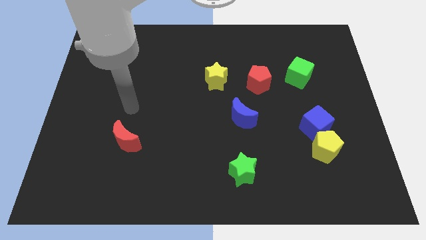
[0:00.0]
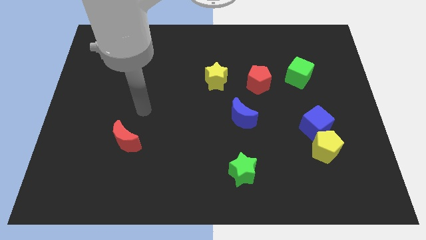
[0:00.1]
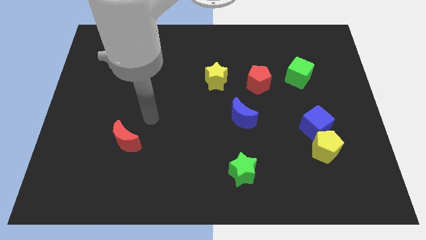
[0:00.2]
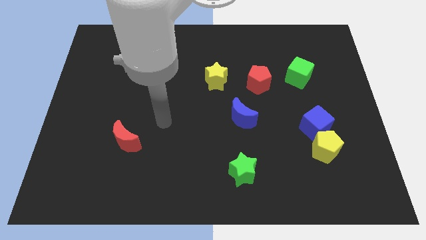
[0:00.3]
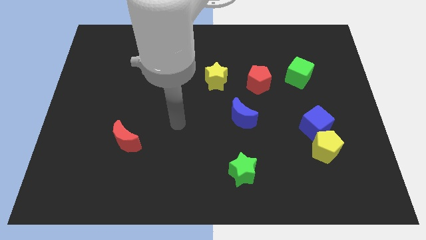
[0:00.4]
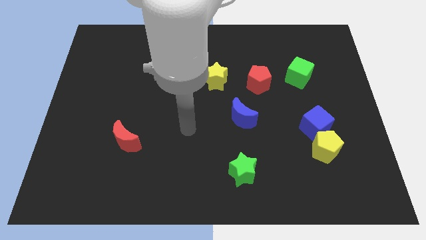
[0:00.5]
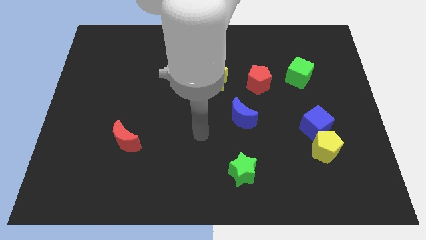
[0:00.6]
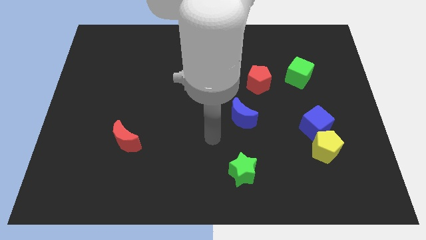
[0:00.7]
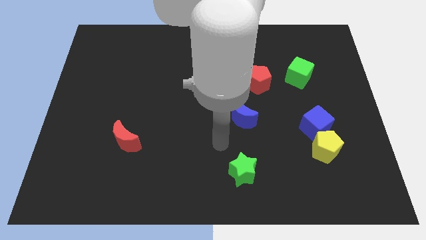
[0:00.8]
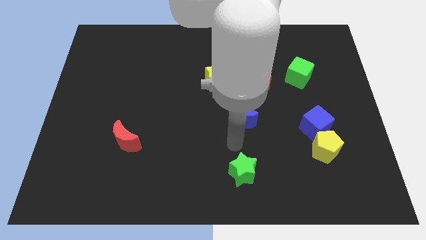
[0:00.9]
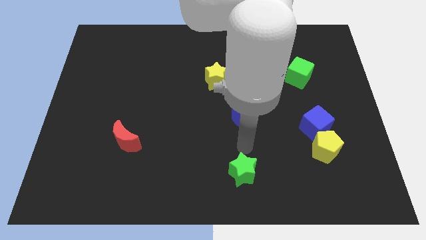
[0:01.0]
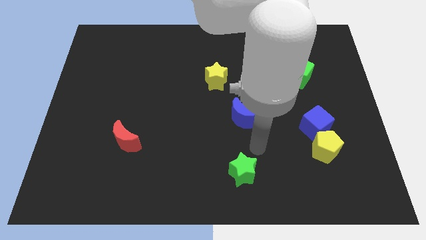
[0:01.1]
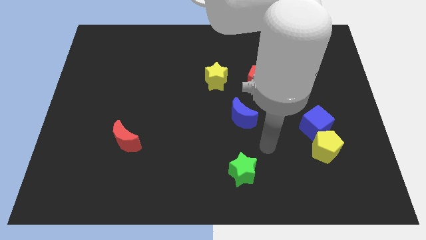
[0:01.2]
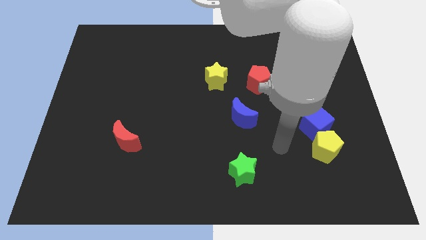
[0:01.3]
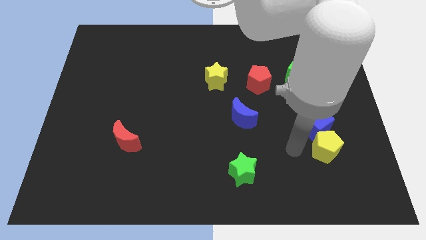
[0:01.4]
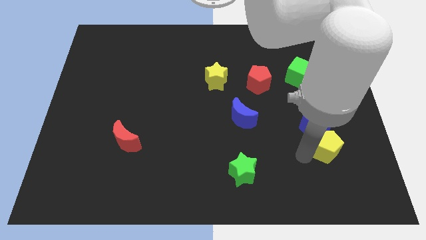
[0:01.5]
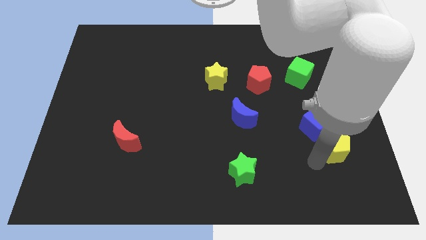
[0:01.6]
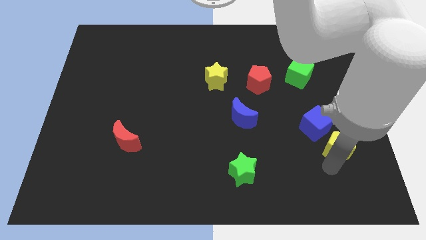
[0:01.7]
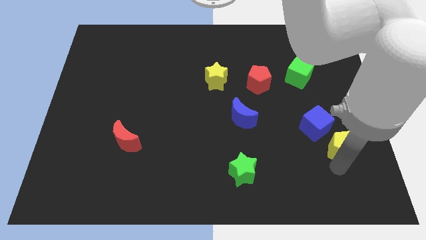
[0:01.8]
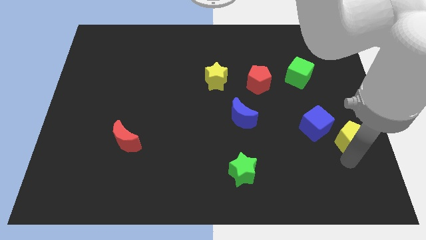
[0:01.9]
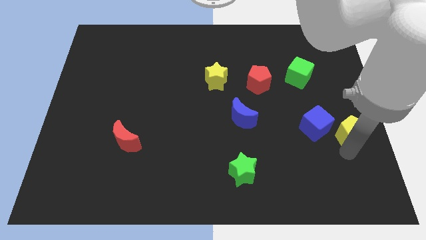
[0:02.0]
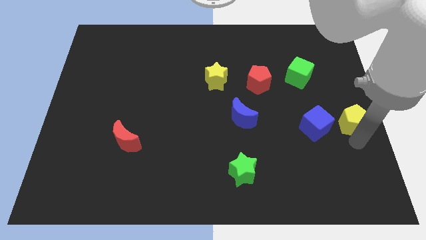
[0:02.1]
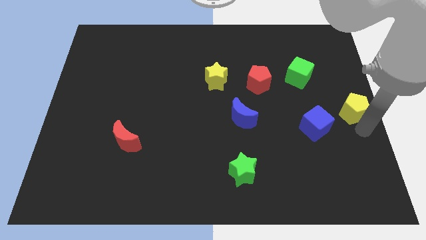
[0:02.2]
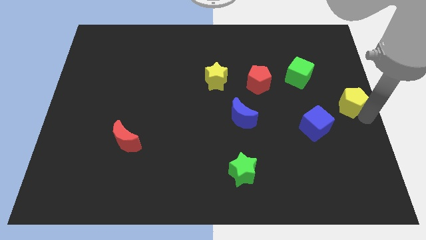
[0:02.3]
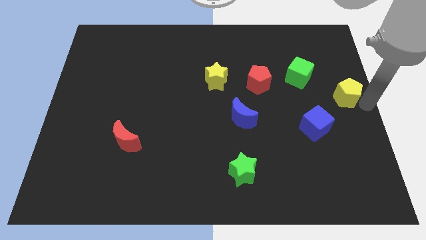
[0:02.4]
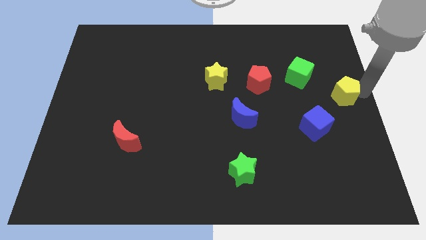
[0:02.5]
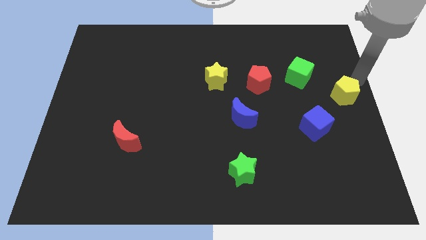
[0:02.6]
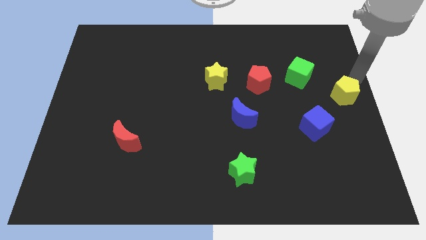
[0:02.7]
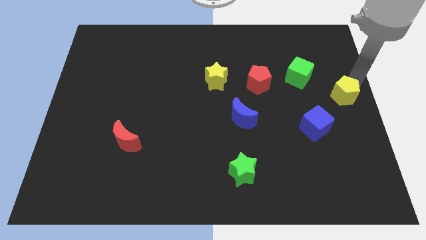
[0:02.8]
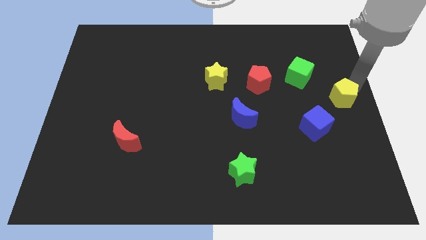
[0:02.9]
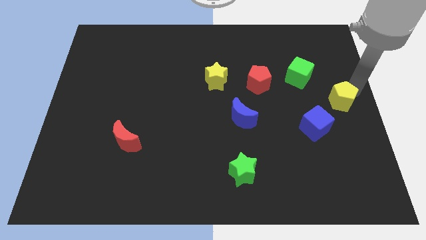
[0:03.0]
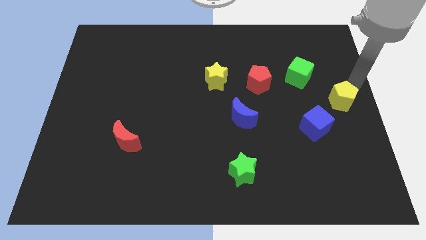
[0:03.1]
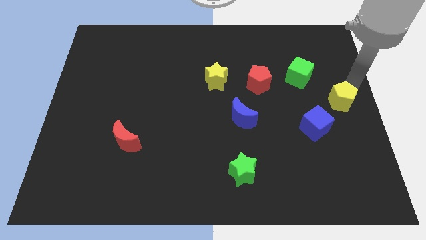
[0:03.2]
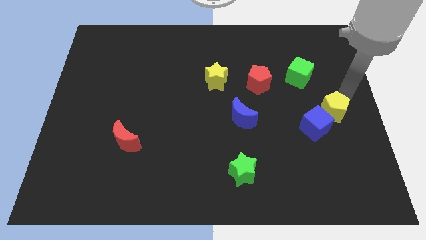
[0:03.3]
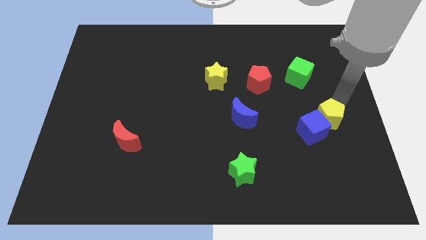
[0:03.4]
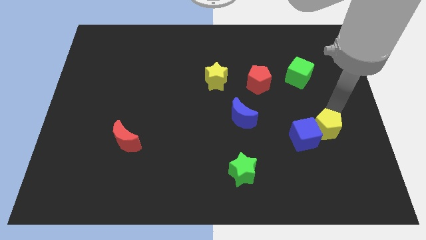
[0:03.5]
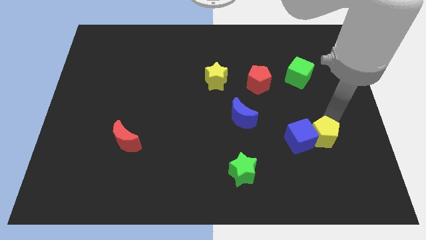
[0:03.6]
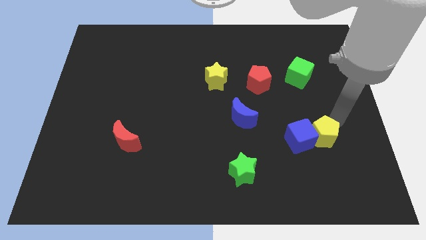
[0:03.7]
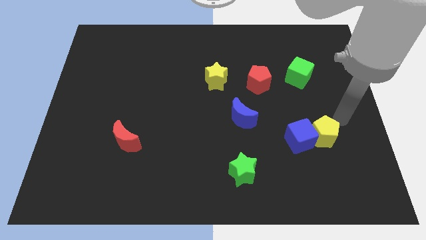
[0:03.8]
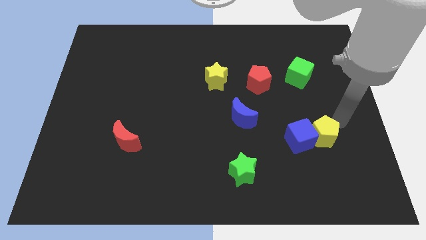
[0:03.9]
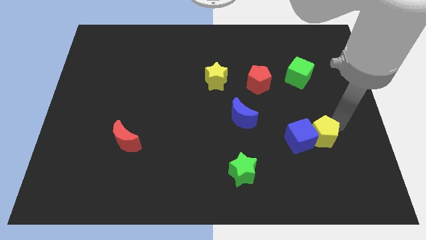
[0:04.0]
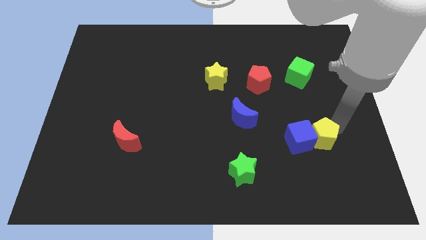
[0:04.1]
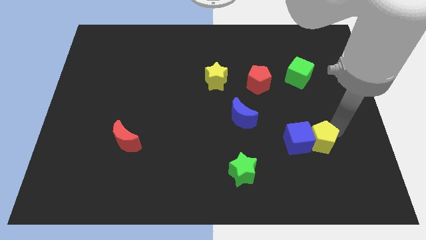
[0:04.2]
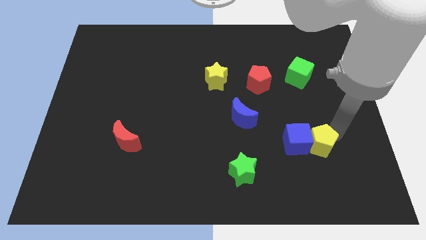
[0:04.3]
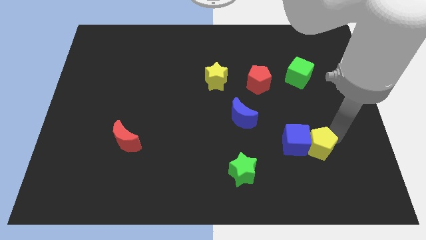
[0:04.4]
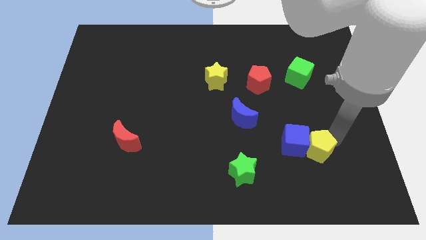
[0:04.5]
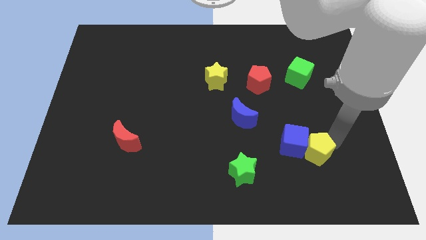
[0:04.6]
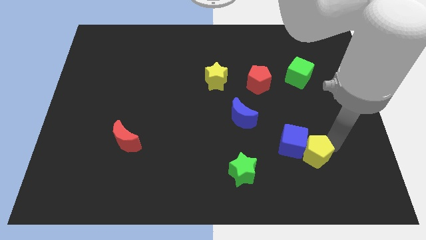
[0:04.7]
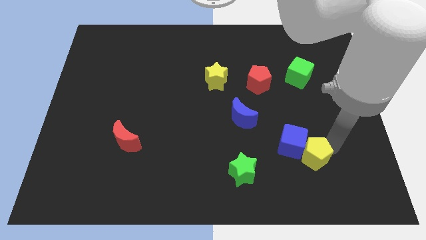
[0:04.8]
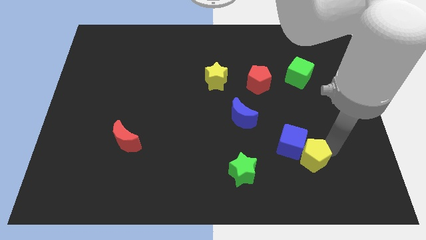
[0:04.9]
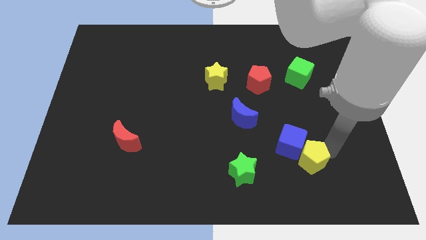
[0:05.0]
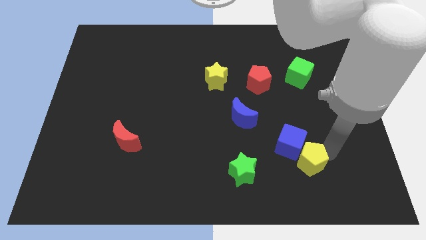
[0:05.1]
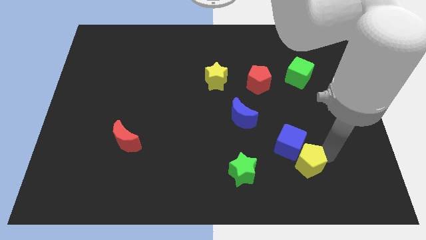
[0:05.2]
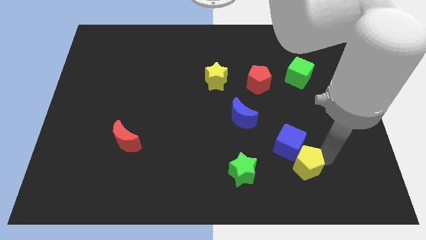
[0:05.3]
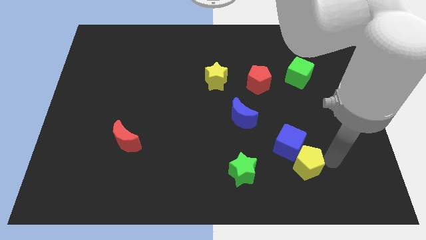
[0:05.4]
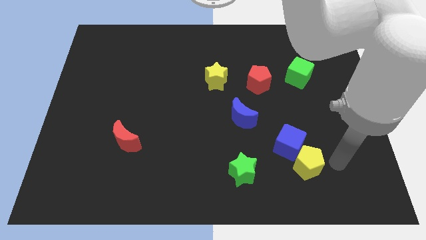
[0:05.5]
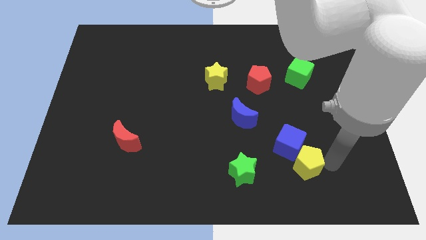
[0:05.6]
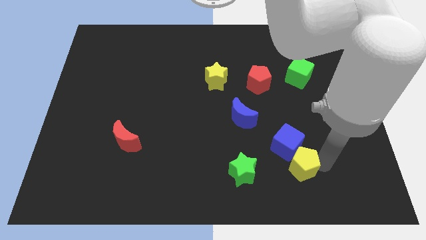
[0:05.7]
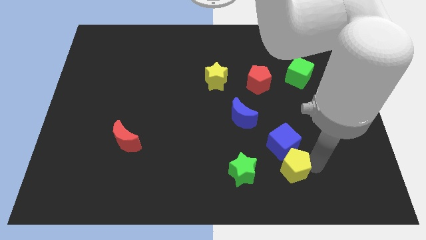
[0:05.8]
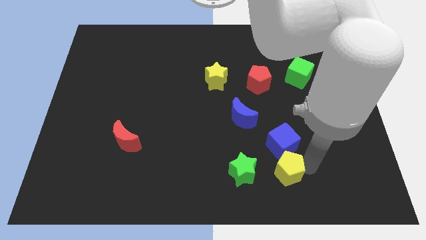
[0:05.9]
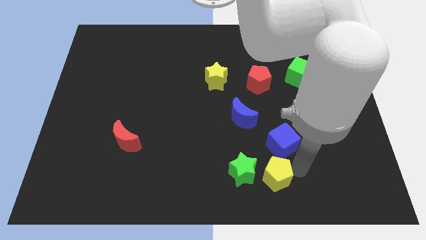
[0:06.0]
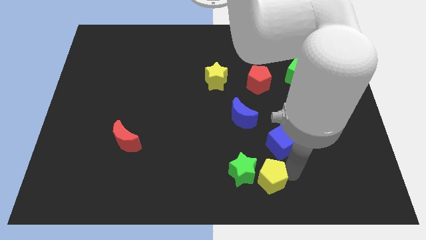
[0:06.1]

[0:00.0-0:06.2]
push the yellow pentagon close to the green star
